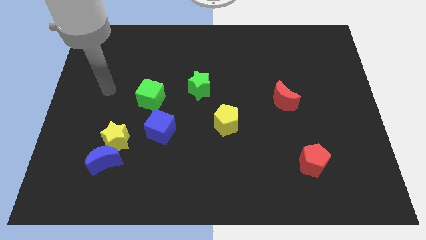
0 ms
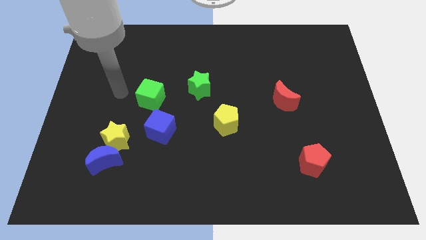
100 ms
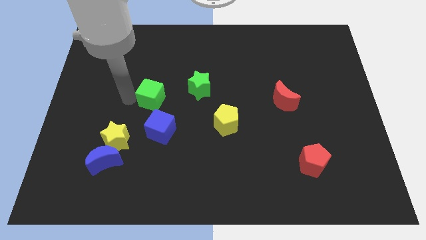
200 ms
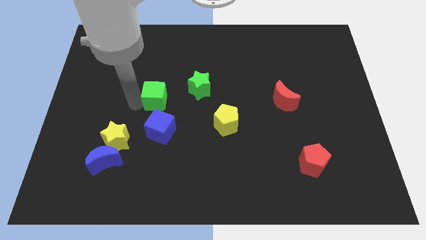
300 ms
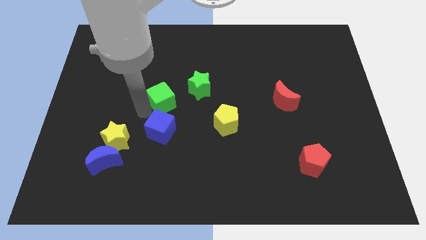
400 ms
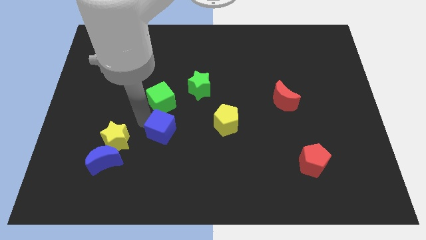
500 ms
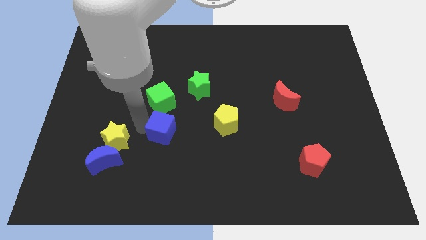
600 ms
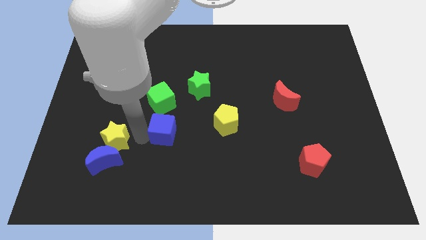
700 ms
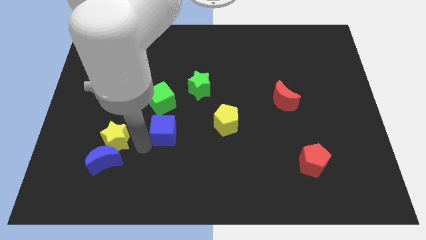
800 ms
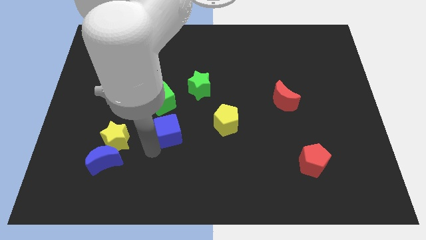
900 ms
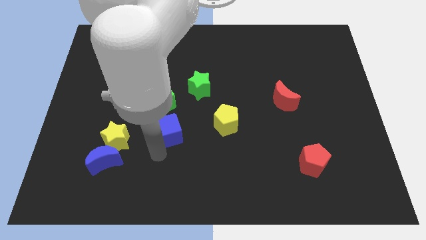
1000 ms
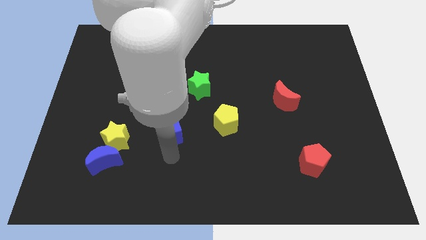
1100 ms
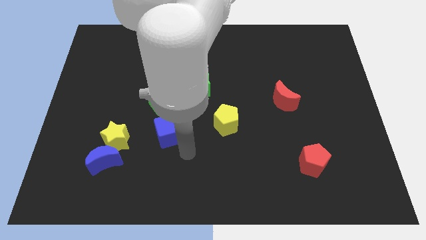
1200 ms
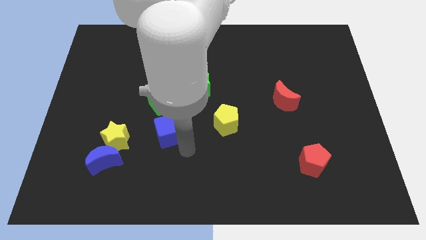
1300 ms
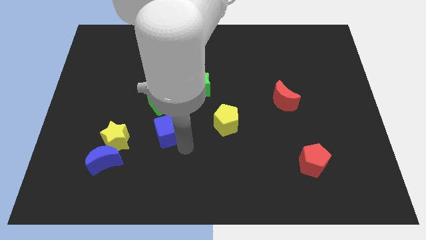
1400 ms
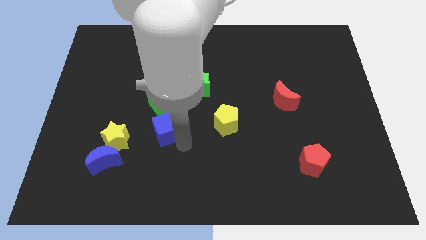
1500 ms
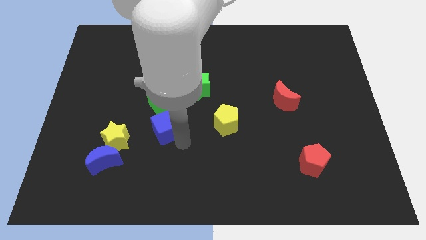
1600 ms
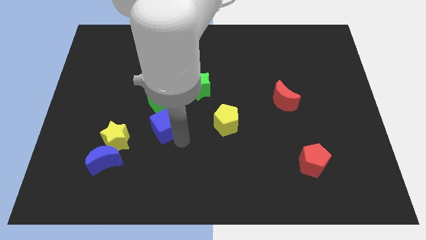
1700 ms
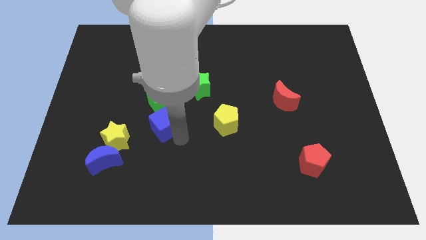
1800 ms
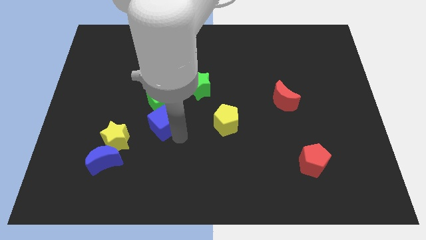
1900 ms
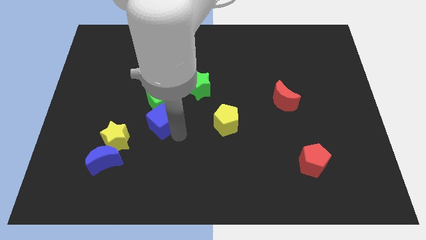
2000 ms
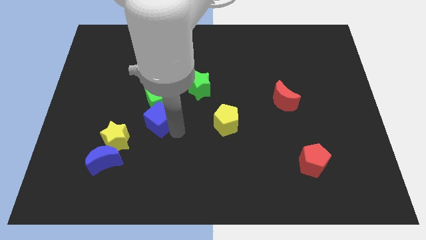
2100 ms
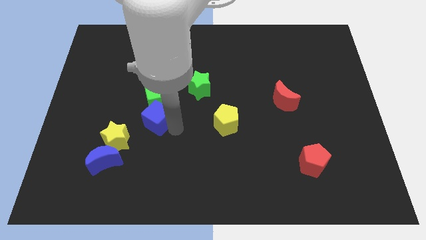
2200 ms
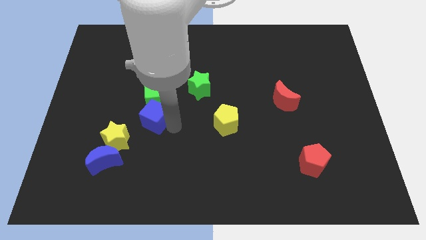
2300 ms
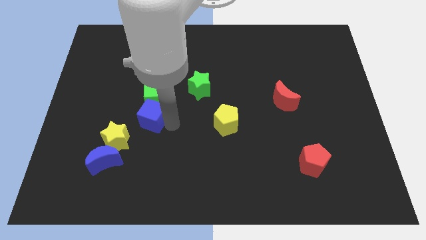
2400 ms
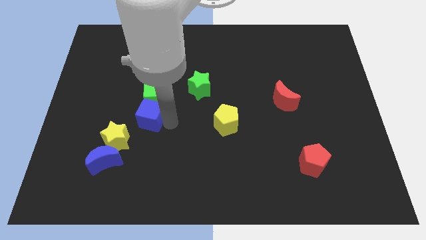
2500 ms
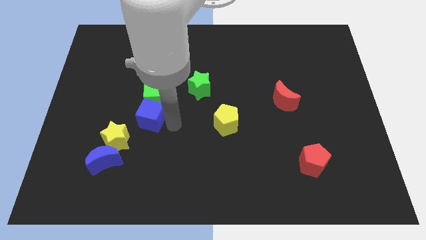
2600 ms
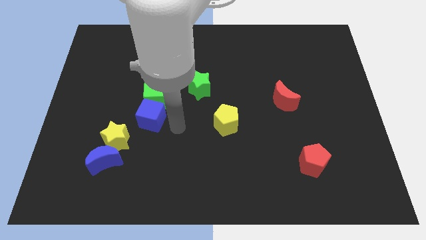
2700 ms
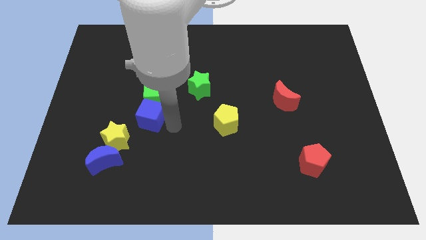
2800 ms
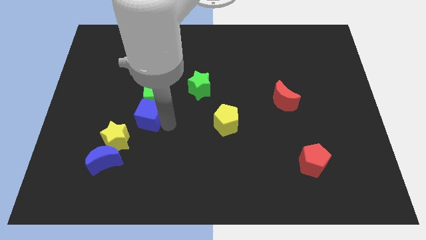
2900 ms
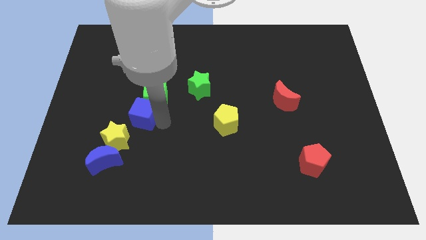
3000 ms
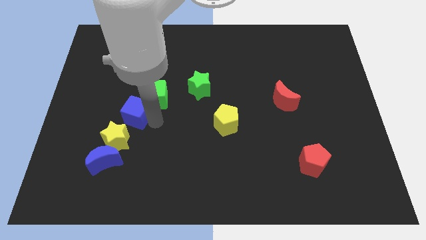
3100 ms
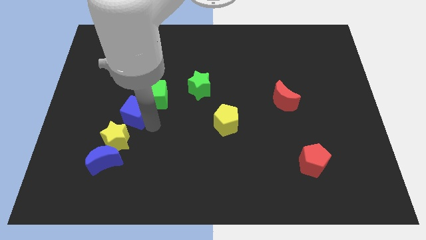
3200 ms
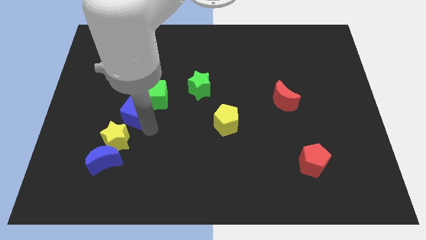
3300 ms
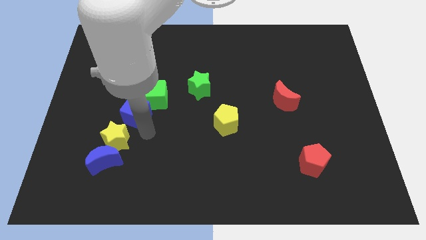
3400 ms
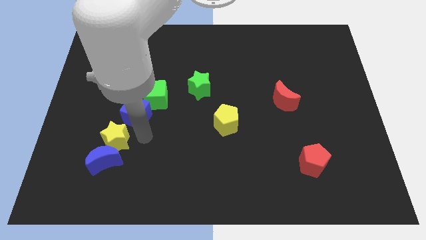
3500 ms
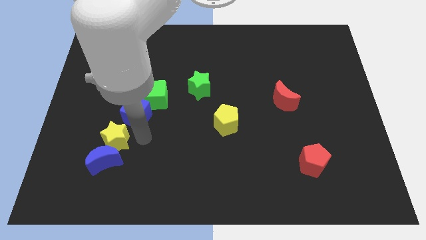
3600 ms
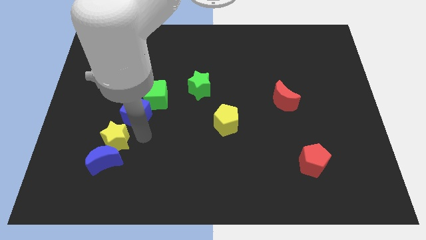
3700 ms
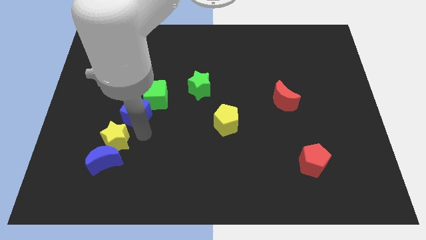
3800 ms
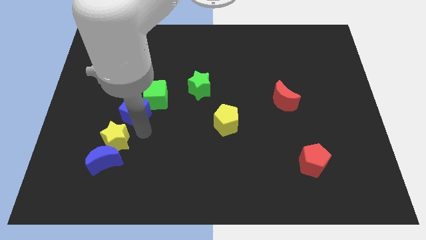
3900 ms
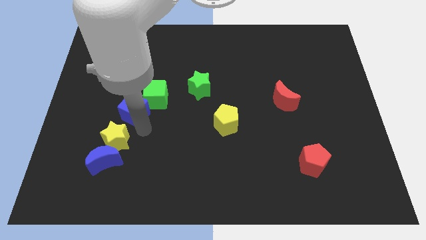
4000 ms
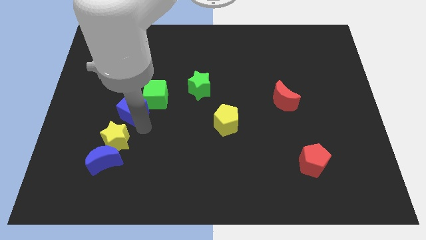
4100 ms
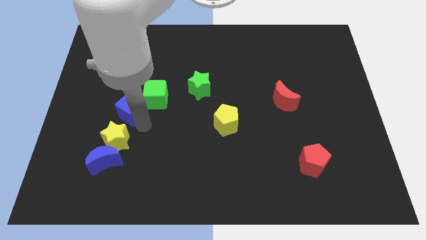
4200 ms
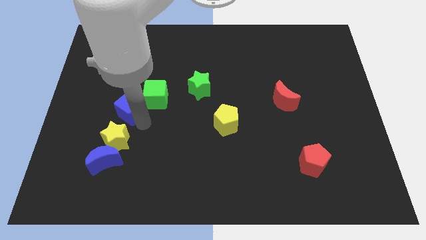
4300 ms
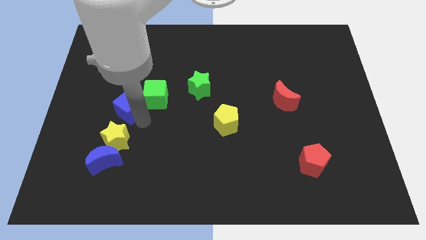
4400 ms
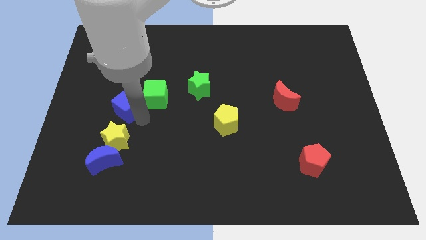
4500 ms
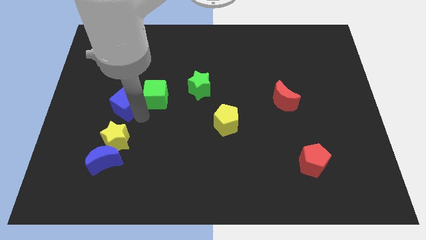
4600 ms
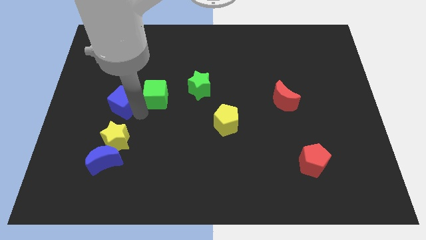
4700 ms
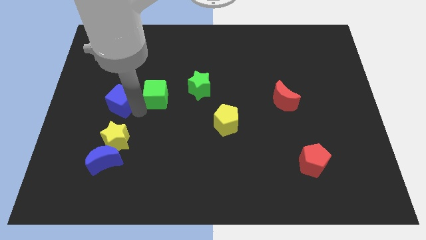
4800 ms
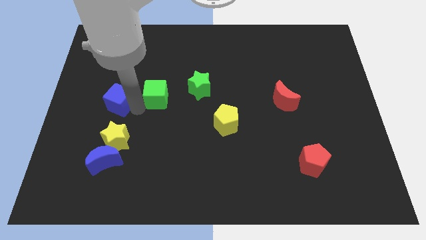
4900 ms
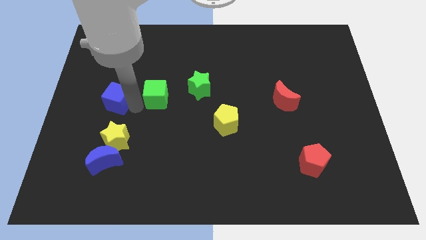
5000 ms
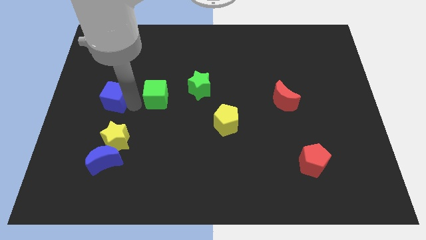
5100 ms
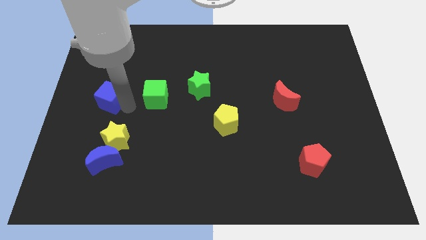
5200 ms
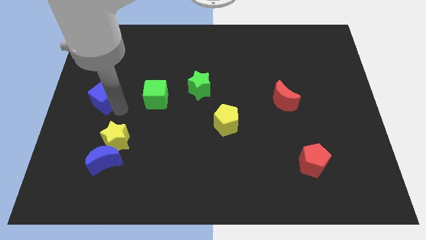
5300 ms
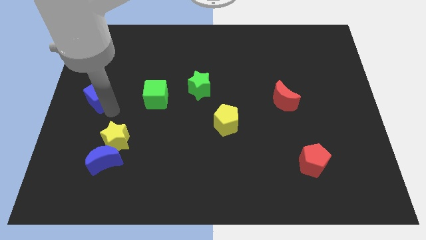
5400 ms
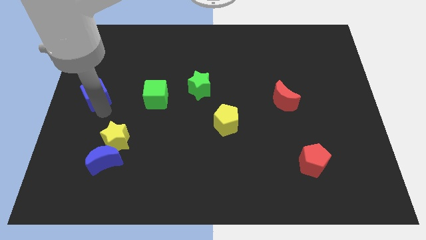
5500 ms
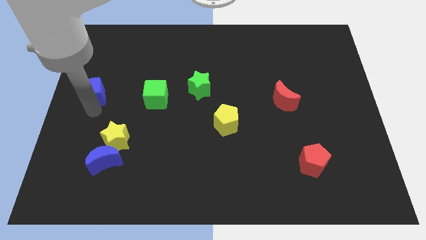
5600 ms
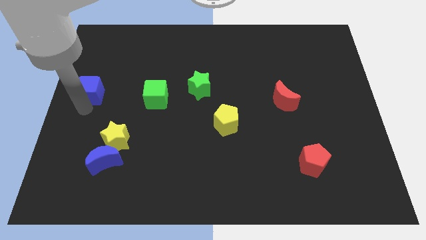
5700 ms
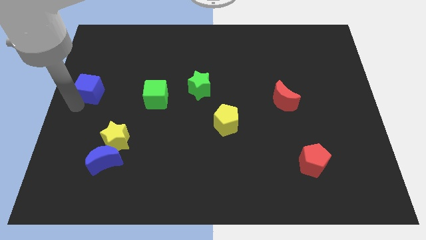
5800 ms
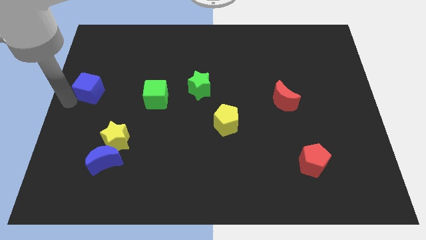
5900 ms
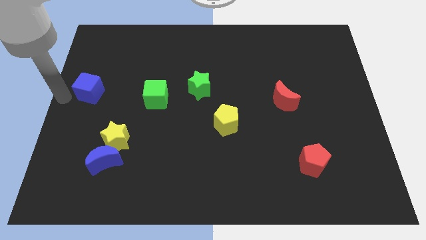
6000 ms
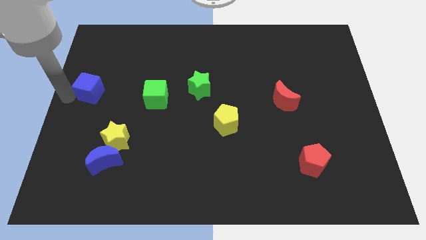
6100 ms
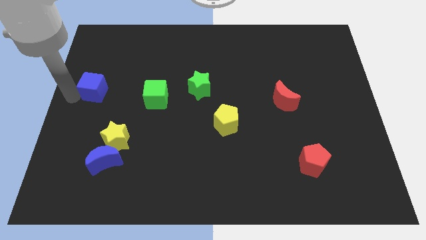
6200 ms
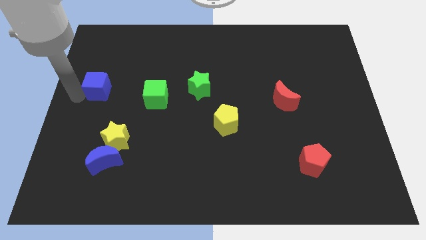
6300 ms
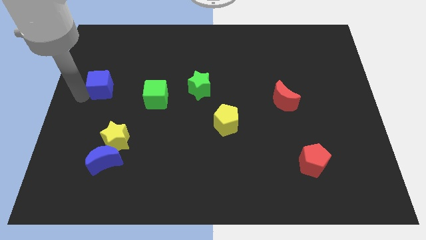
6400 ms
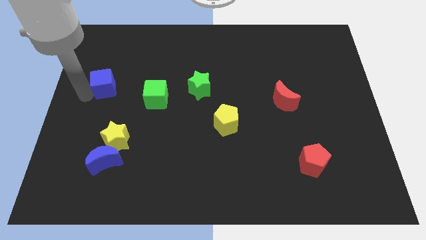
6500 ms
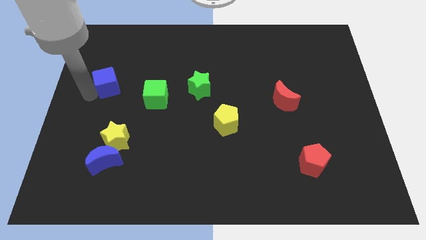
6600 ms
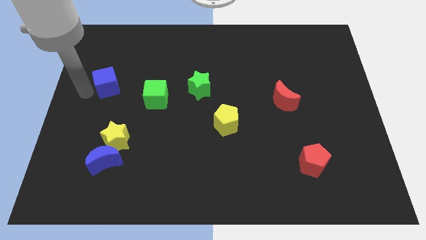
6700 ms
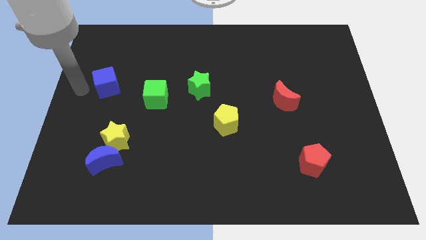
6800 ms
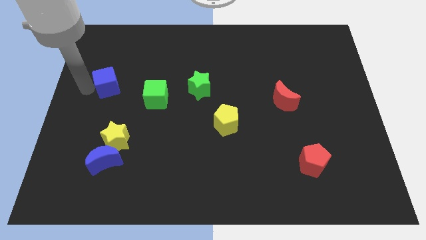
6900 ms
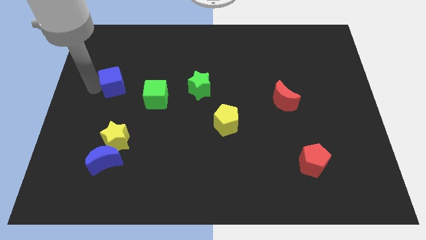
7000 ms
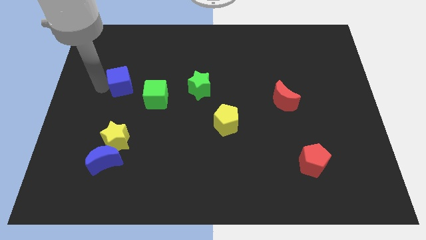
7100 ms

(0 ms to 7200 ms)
slide the blue cube diagonally up and to the left of the green cube

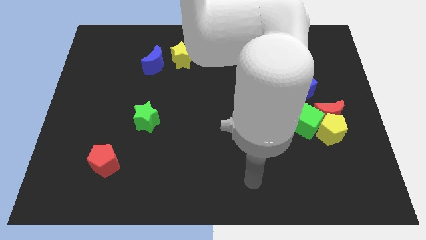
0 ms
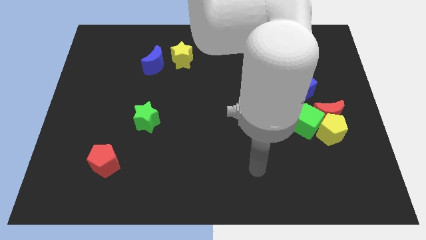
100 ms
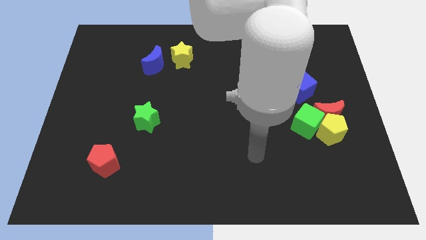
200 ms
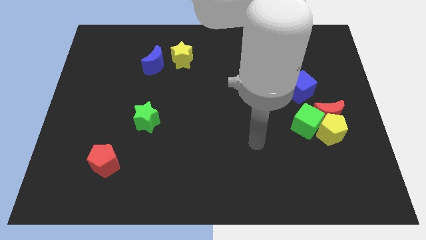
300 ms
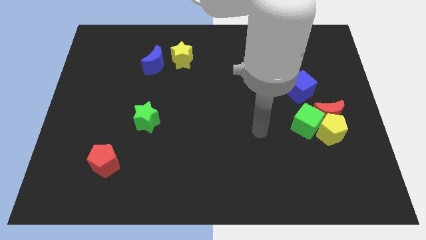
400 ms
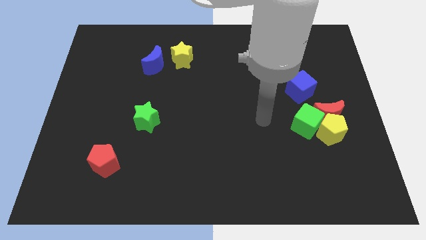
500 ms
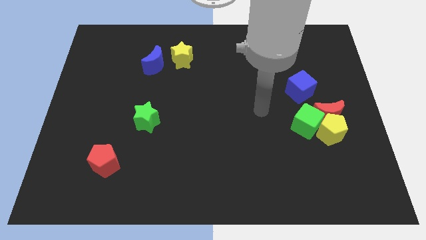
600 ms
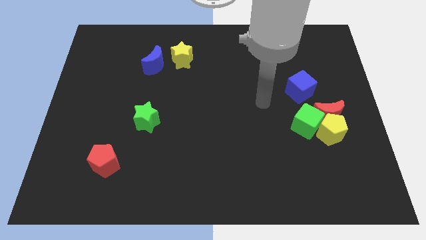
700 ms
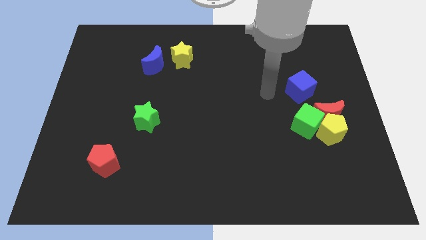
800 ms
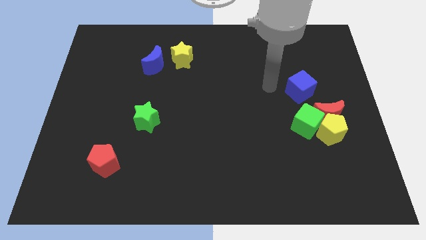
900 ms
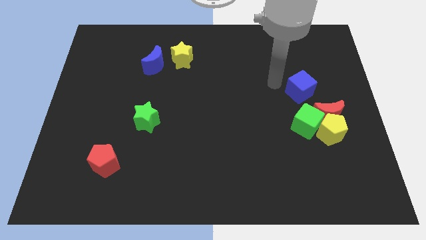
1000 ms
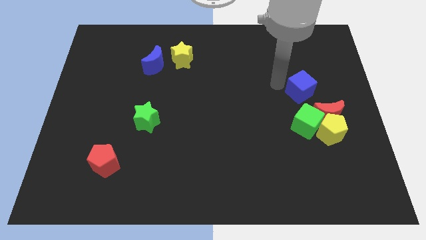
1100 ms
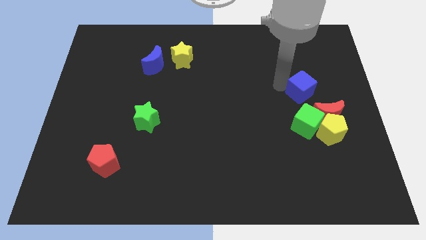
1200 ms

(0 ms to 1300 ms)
put the blue cube to the top side of the yellow pentagon
